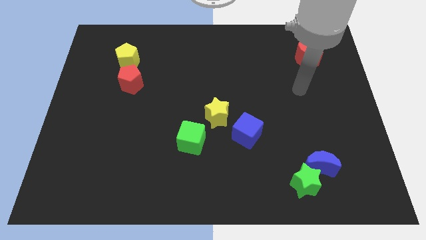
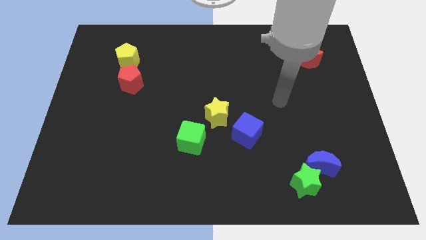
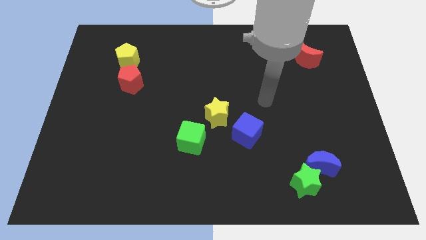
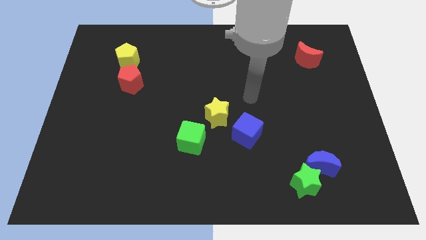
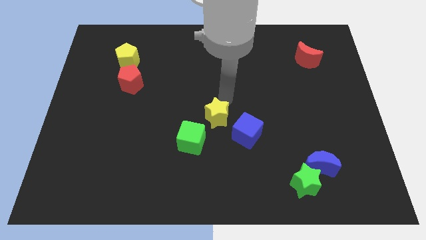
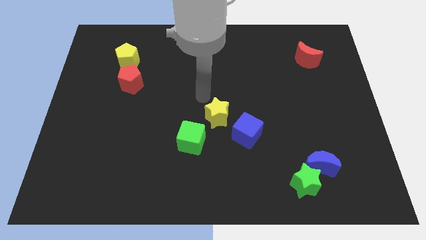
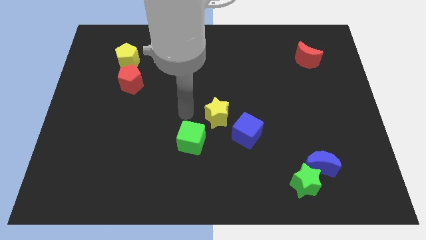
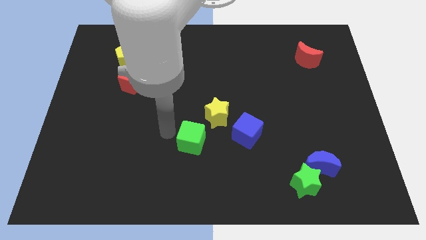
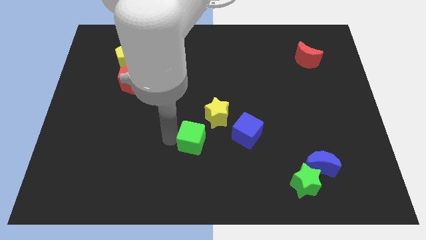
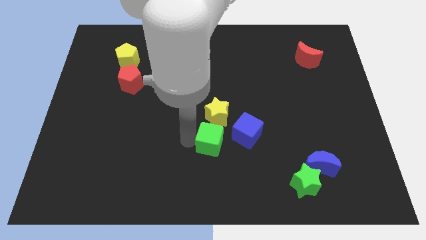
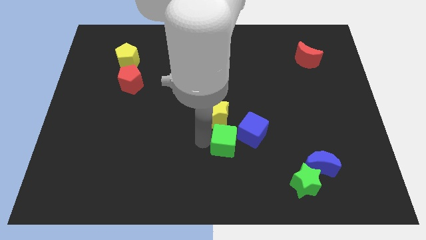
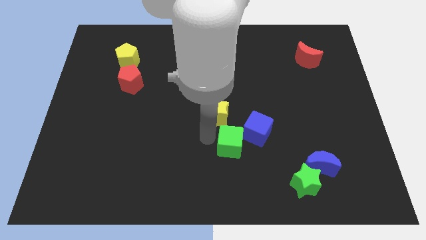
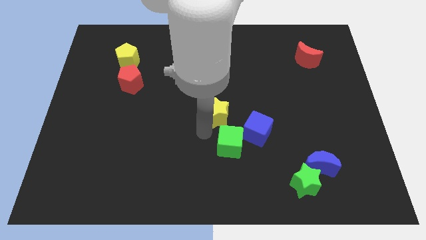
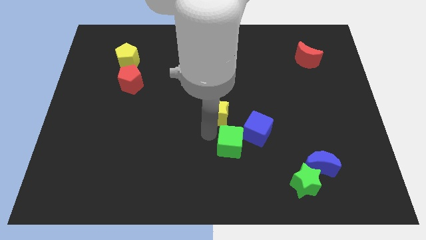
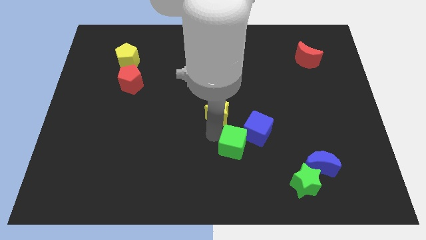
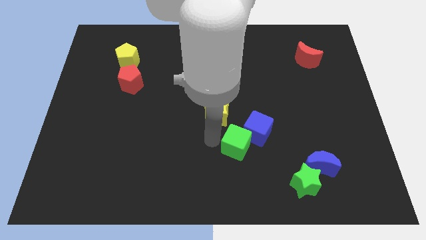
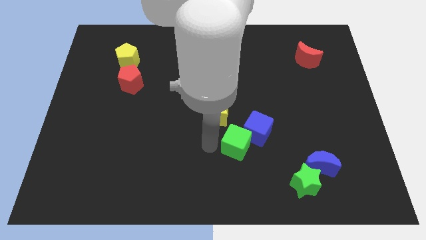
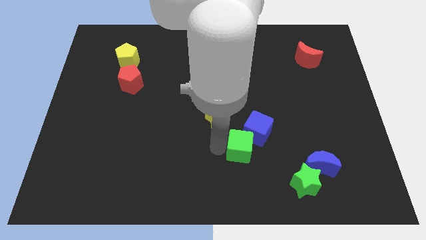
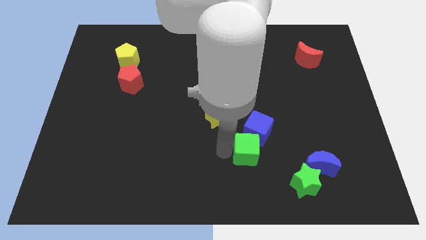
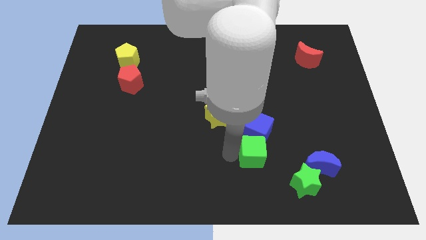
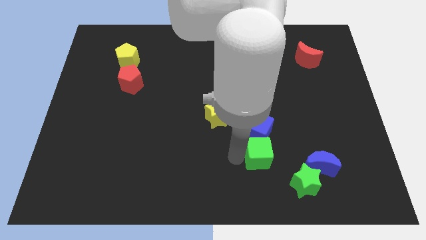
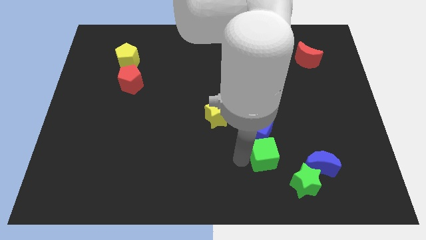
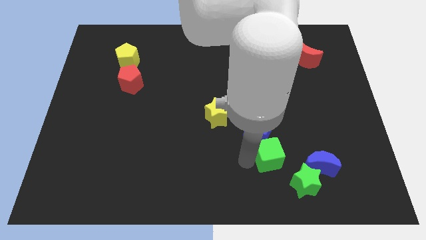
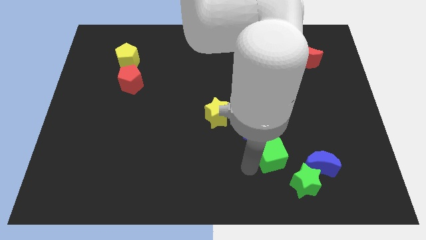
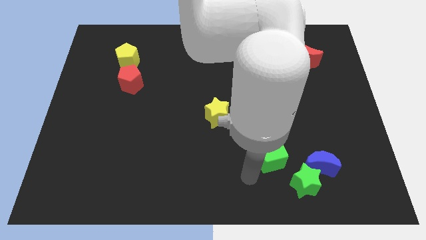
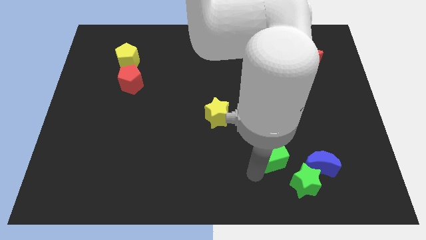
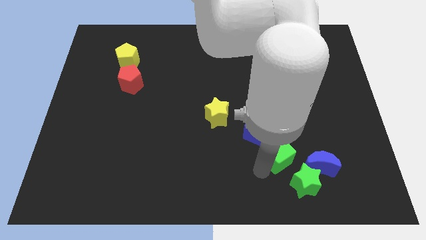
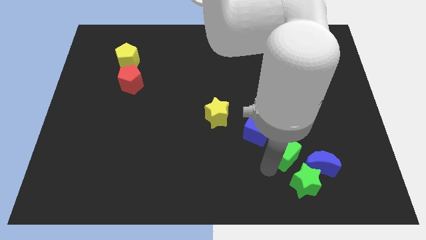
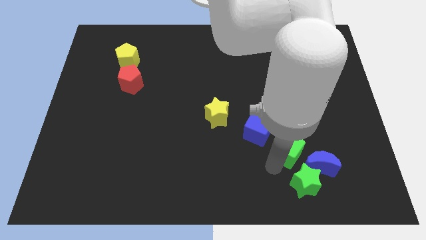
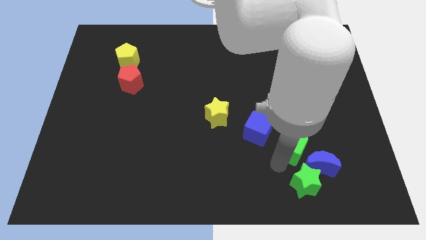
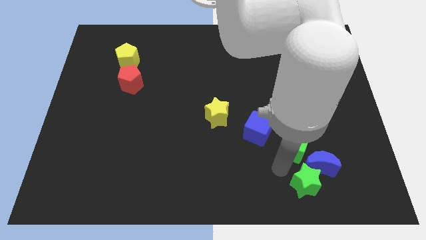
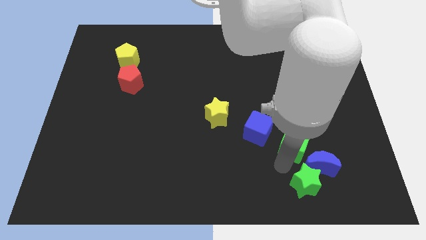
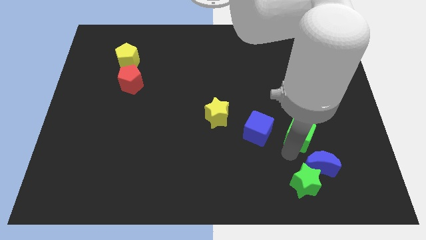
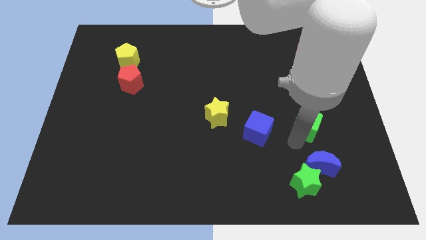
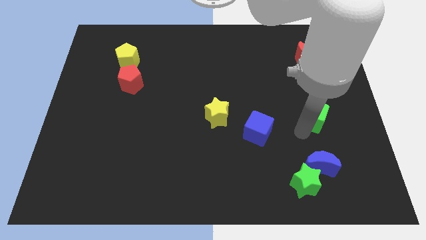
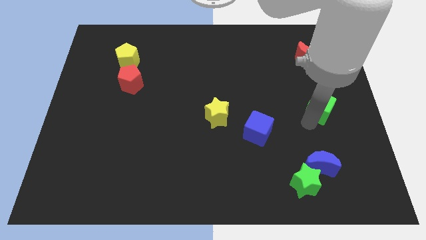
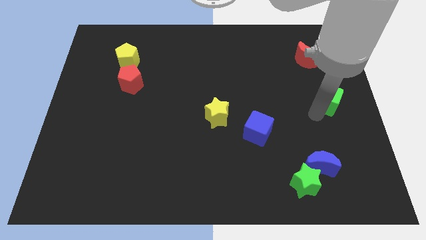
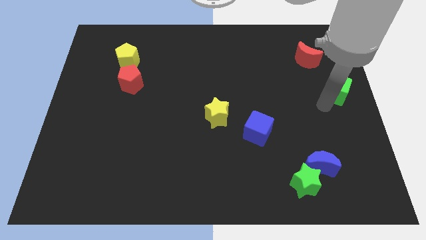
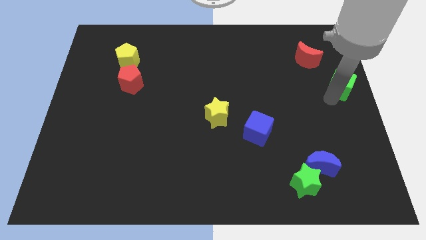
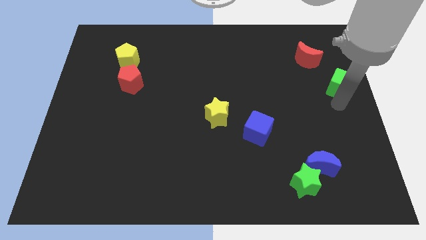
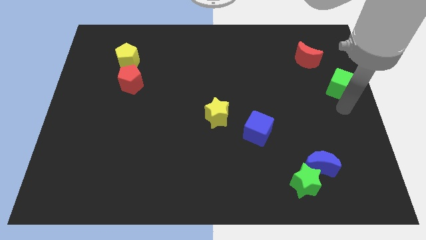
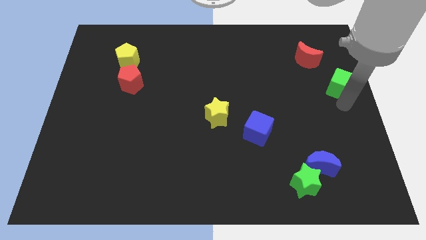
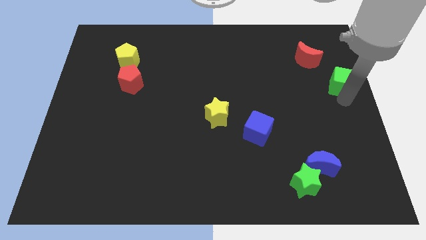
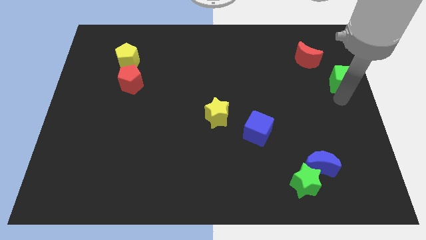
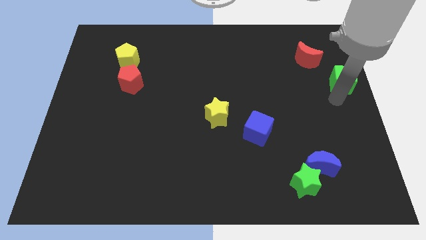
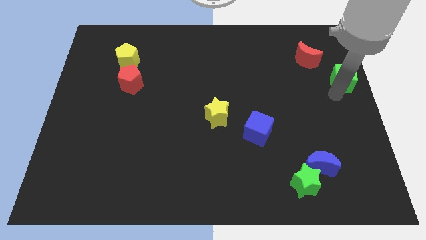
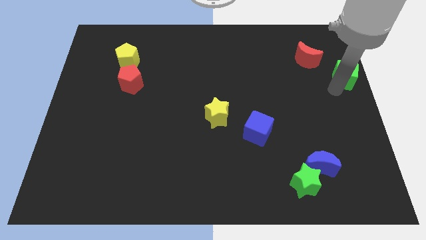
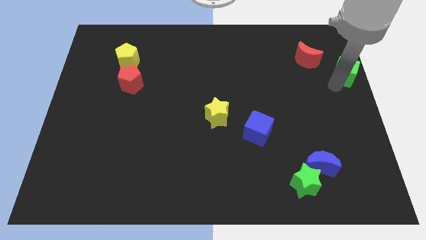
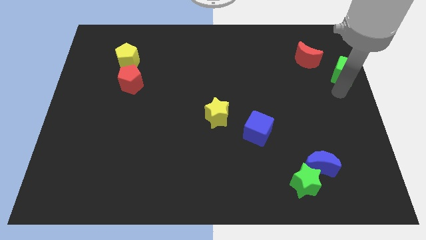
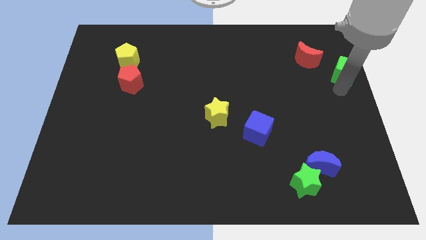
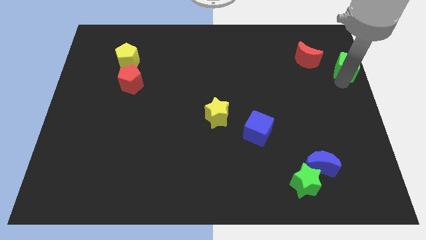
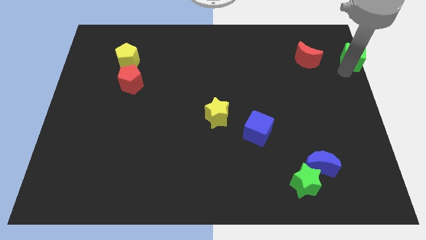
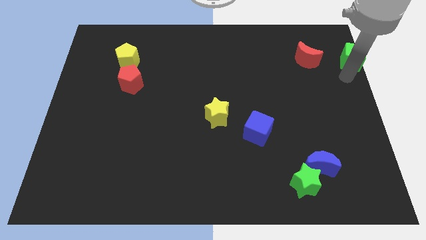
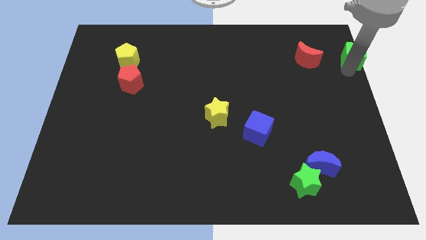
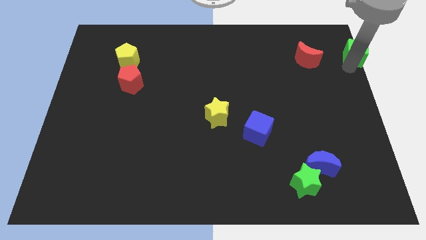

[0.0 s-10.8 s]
slide the green cube to the top right of the board
